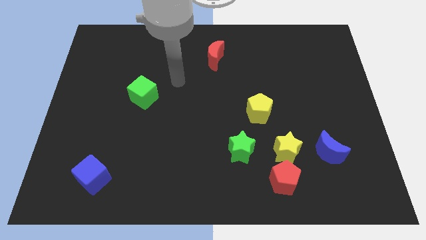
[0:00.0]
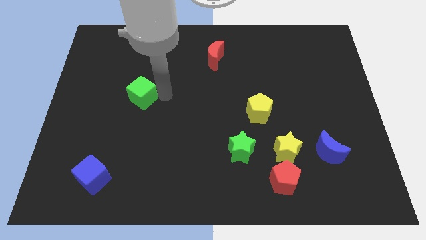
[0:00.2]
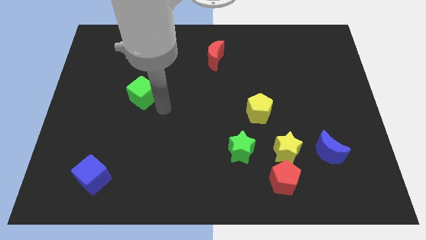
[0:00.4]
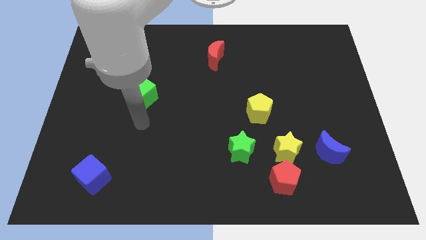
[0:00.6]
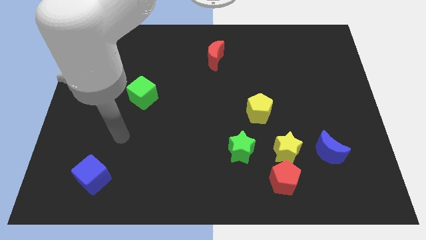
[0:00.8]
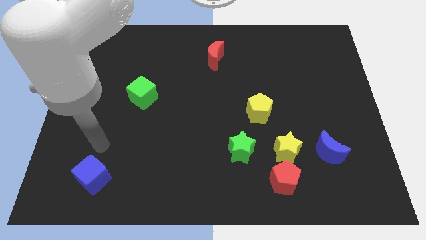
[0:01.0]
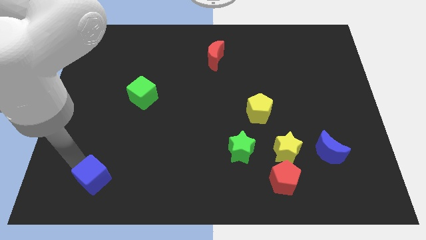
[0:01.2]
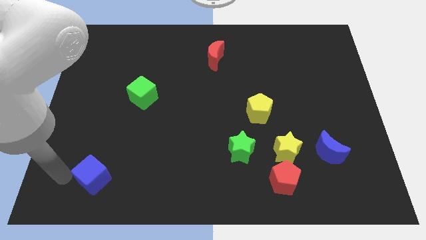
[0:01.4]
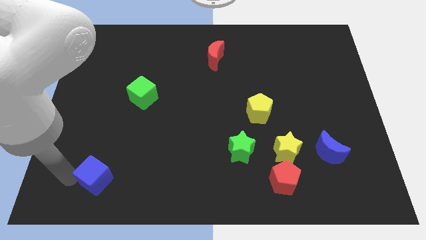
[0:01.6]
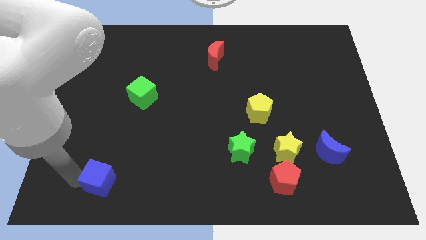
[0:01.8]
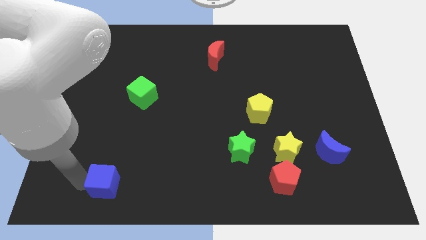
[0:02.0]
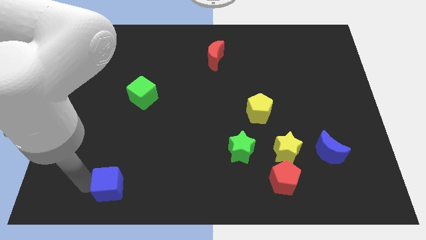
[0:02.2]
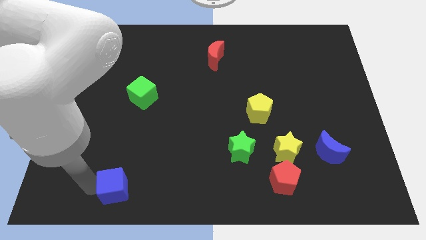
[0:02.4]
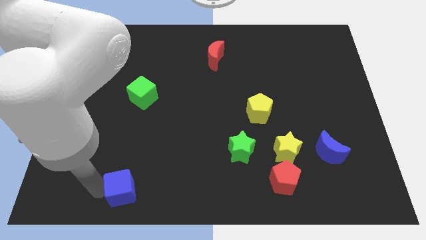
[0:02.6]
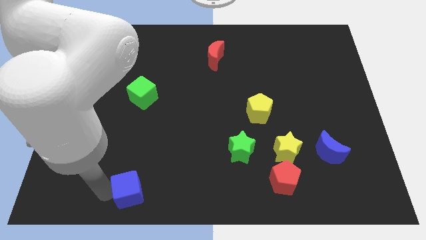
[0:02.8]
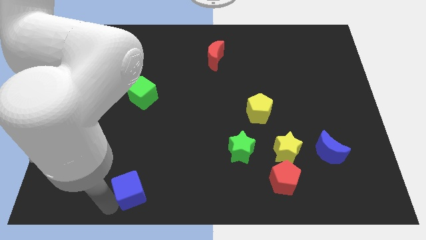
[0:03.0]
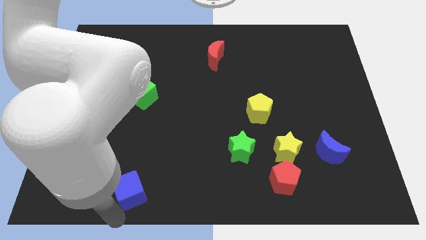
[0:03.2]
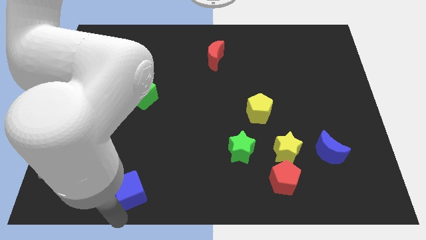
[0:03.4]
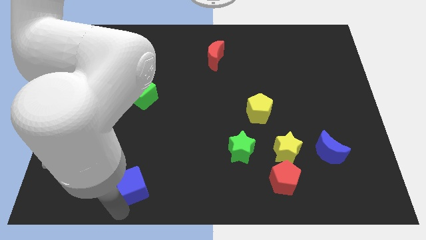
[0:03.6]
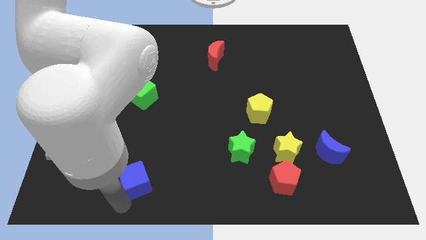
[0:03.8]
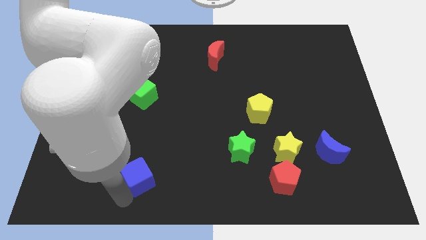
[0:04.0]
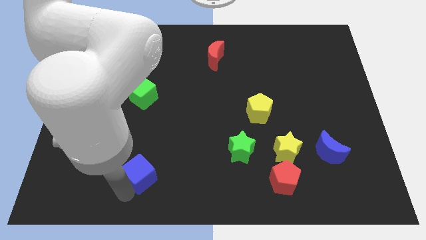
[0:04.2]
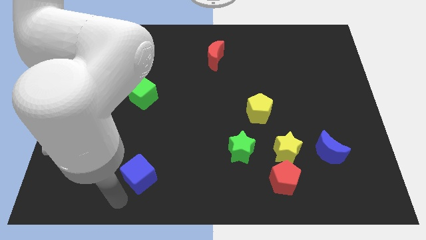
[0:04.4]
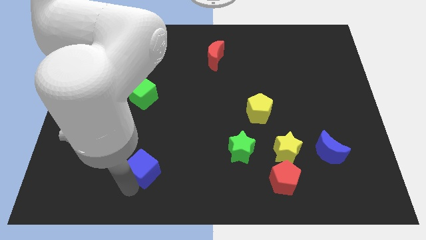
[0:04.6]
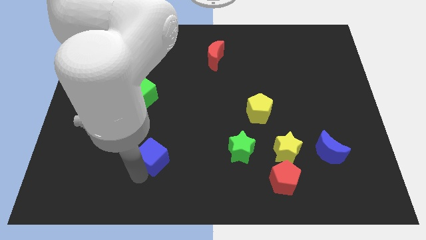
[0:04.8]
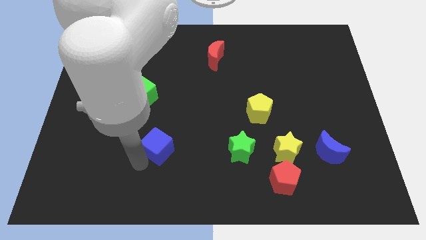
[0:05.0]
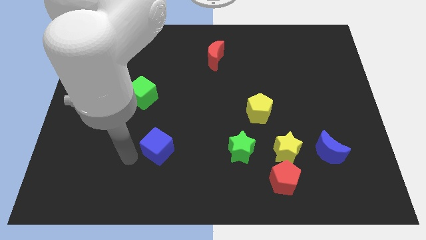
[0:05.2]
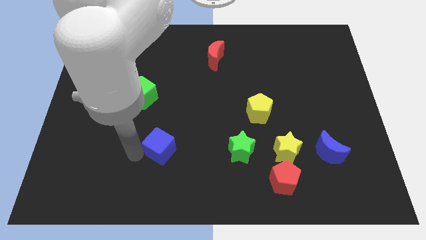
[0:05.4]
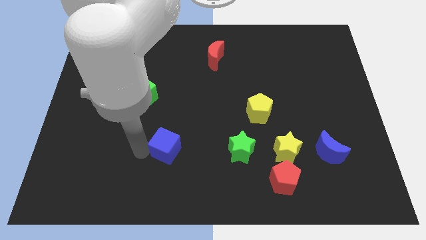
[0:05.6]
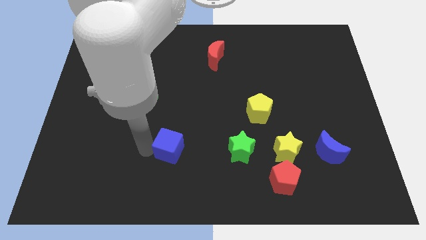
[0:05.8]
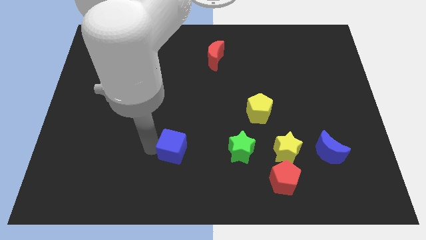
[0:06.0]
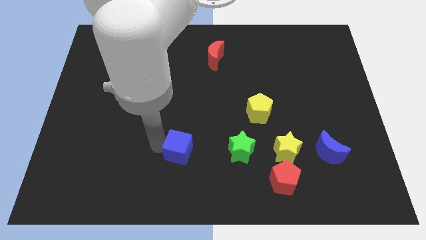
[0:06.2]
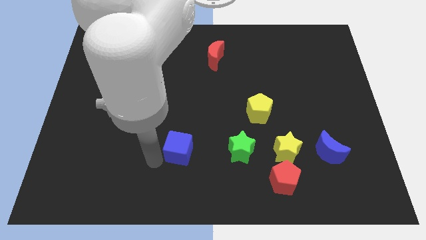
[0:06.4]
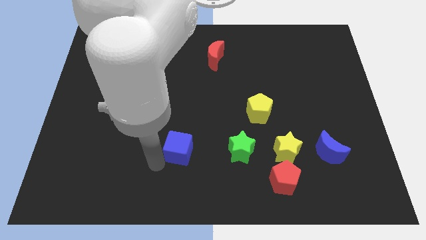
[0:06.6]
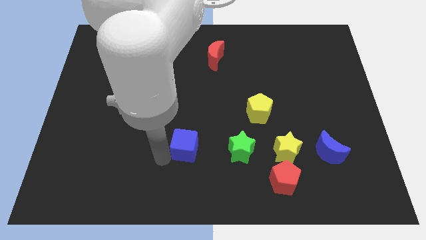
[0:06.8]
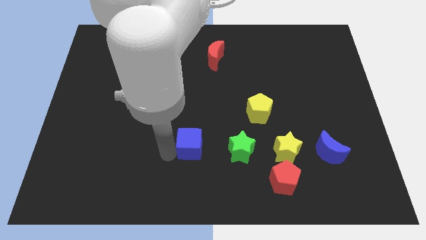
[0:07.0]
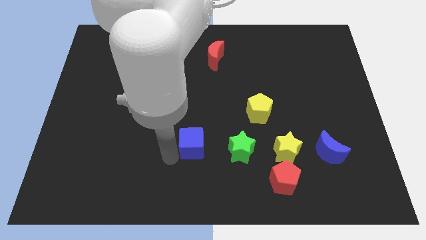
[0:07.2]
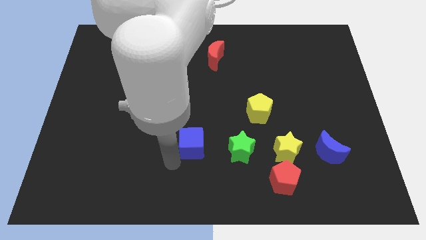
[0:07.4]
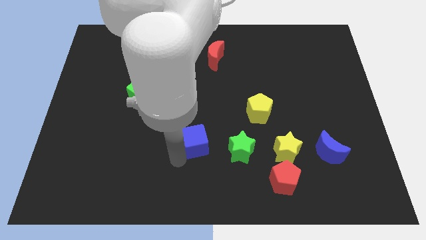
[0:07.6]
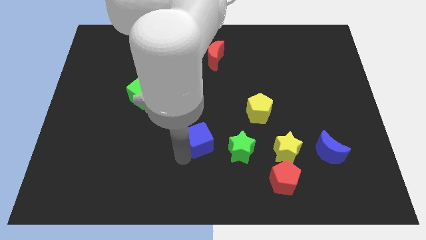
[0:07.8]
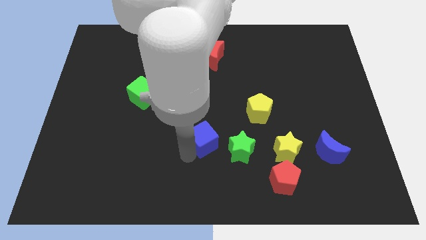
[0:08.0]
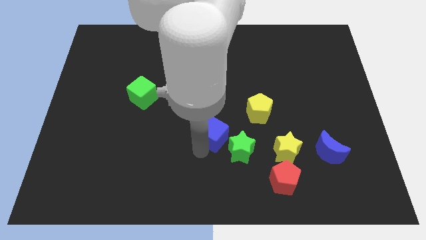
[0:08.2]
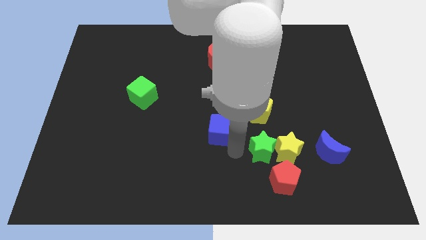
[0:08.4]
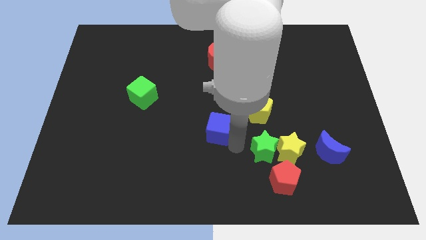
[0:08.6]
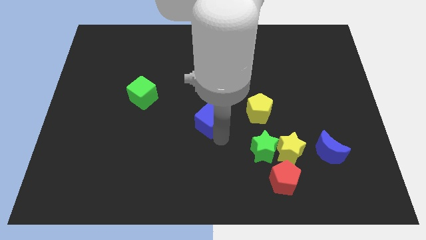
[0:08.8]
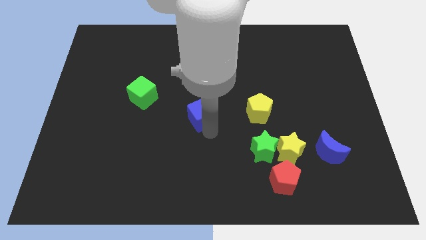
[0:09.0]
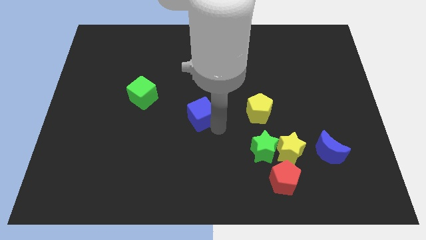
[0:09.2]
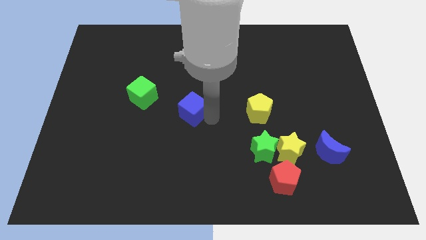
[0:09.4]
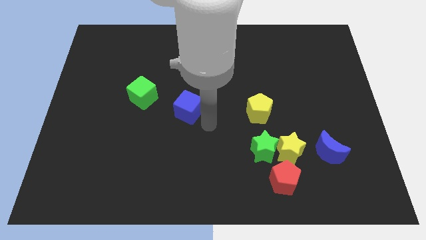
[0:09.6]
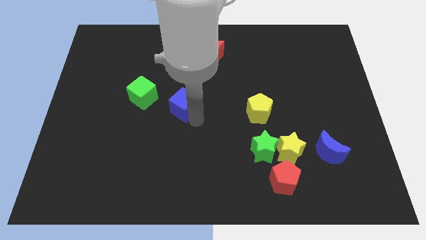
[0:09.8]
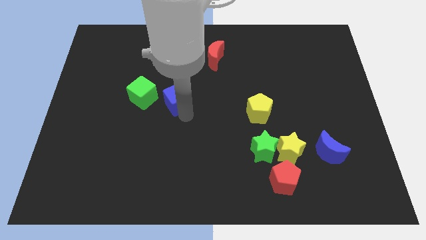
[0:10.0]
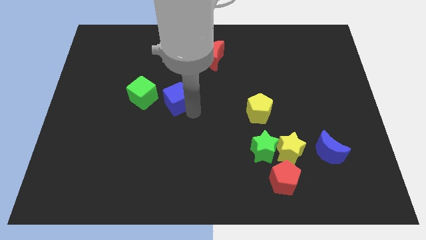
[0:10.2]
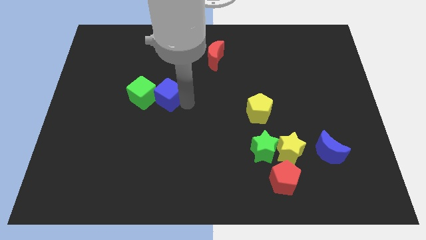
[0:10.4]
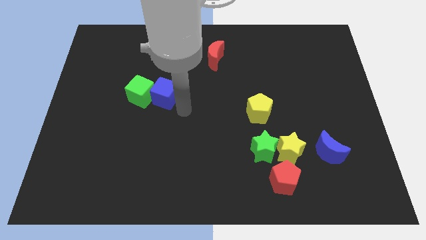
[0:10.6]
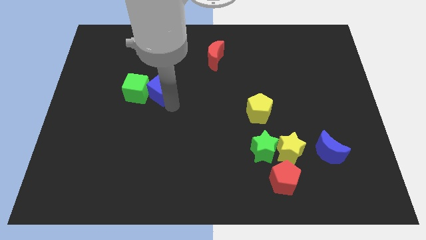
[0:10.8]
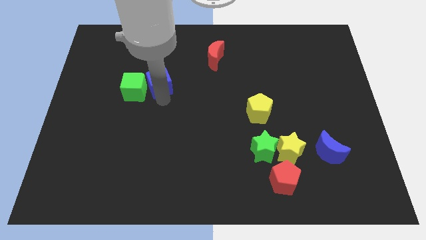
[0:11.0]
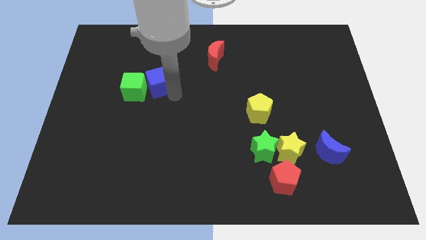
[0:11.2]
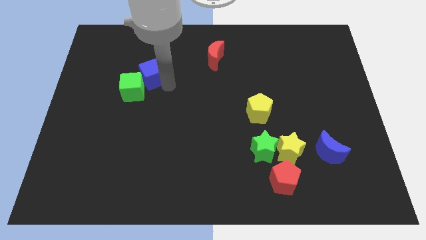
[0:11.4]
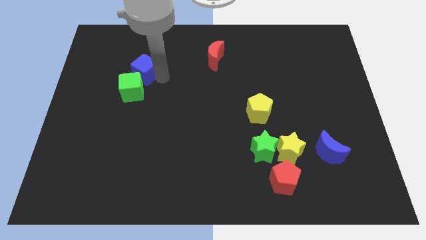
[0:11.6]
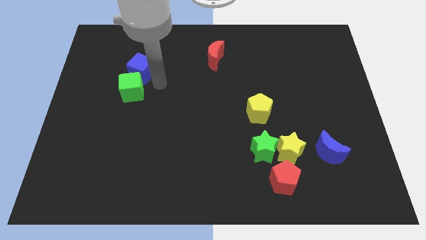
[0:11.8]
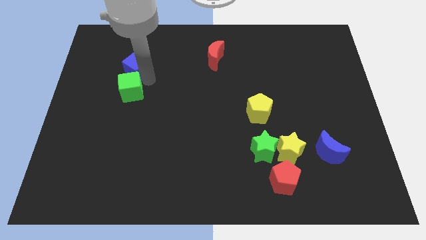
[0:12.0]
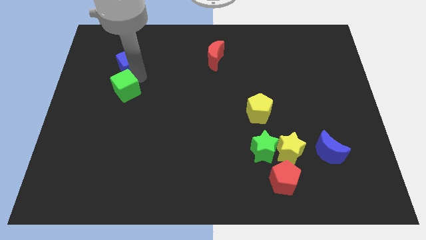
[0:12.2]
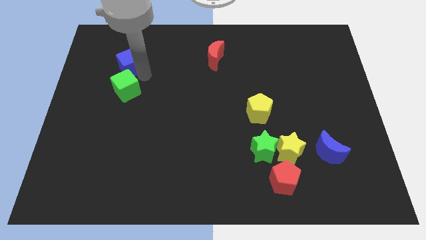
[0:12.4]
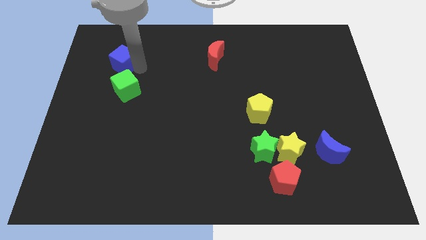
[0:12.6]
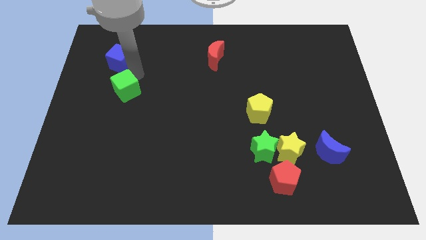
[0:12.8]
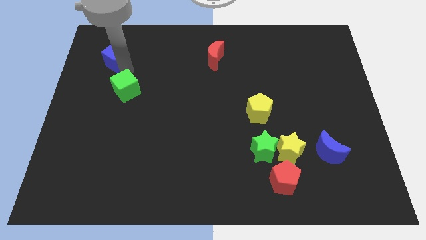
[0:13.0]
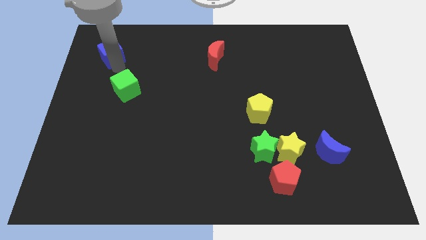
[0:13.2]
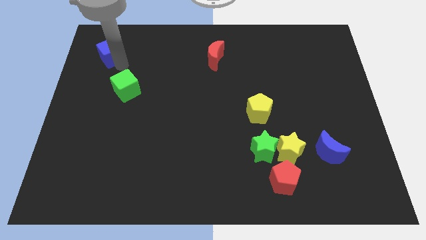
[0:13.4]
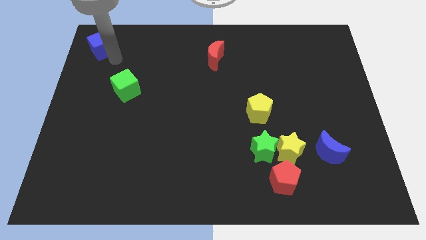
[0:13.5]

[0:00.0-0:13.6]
slide the blue cube to the top left of the board

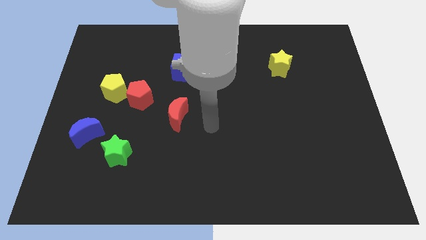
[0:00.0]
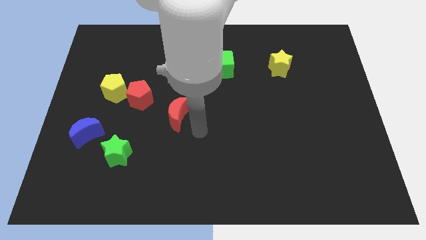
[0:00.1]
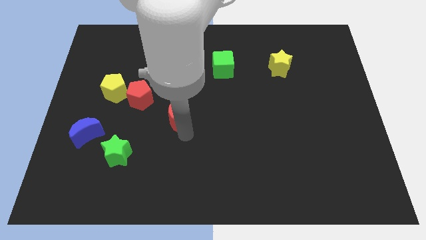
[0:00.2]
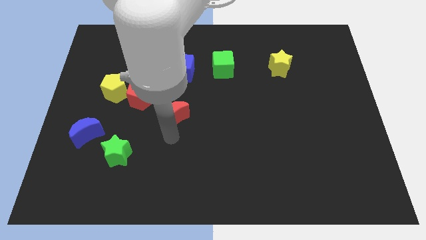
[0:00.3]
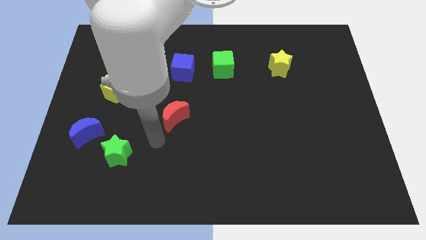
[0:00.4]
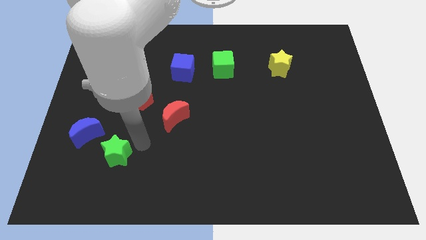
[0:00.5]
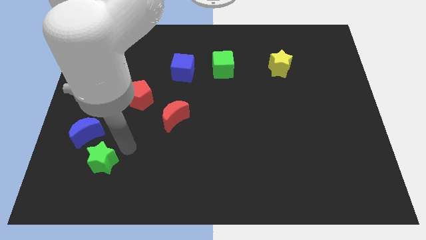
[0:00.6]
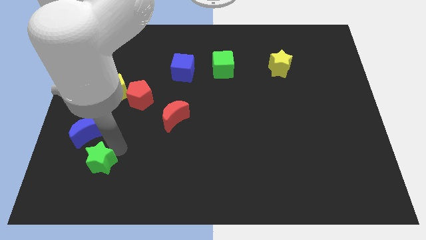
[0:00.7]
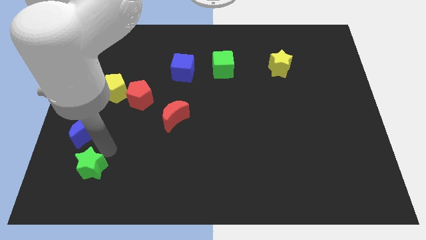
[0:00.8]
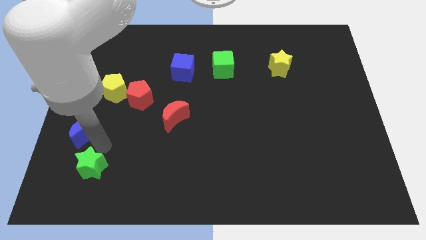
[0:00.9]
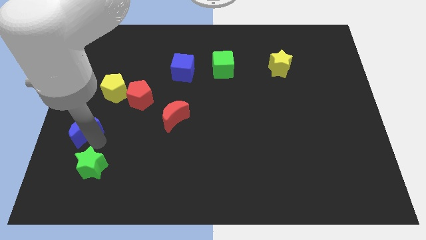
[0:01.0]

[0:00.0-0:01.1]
slide the blue moon to the left side of the board
